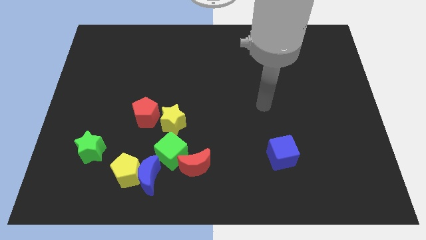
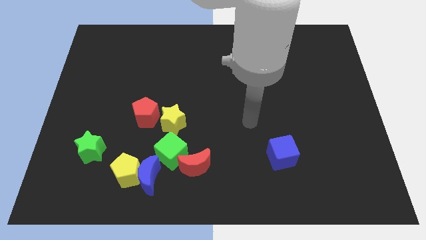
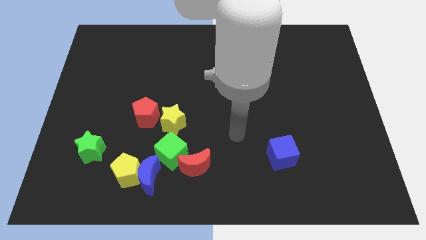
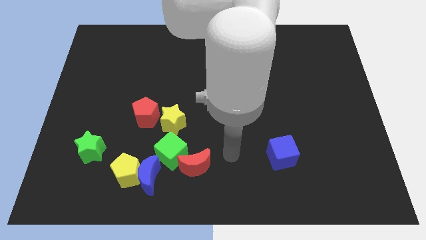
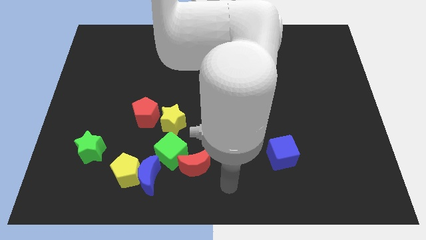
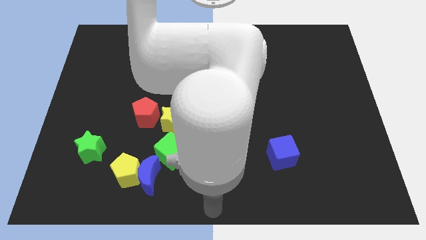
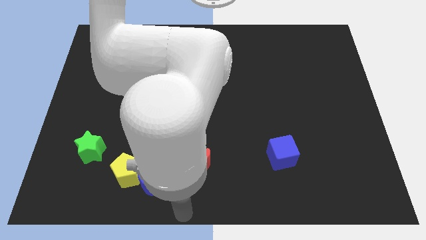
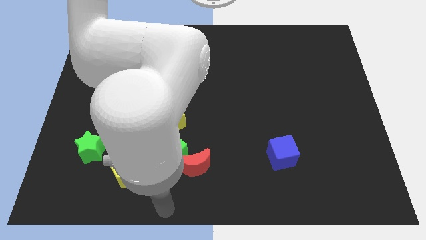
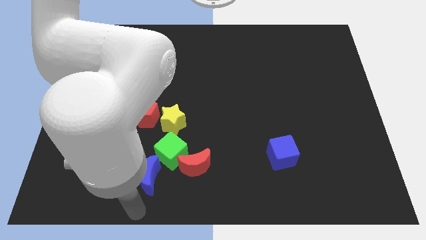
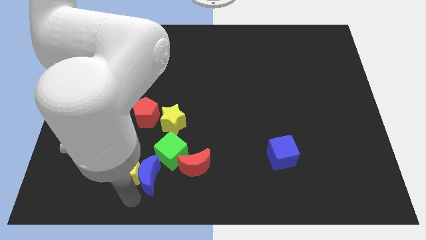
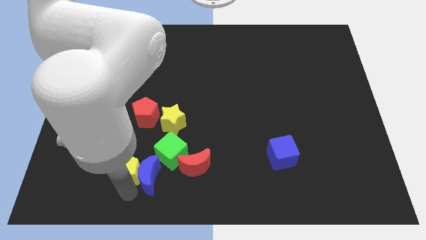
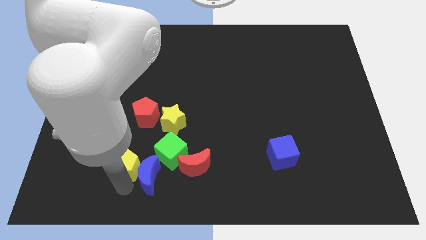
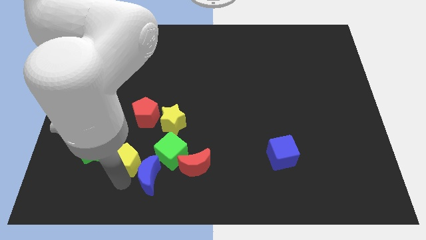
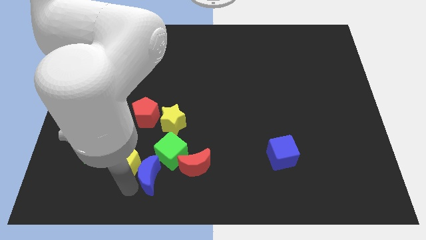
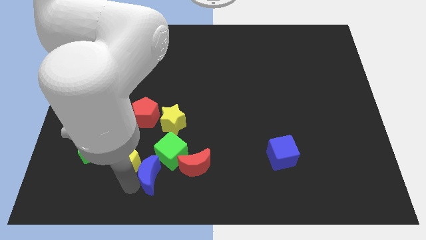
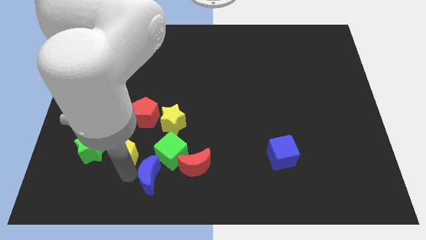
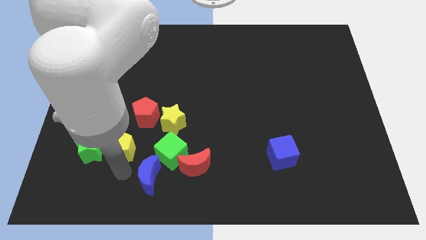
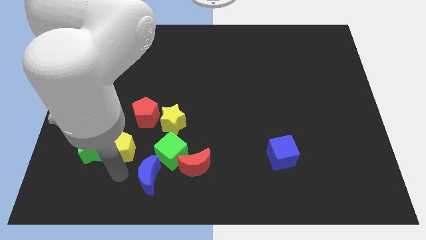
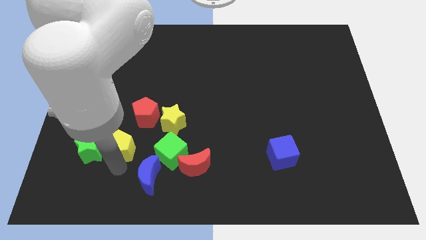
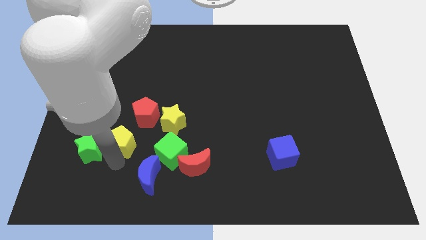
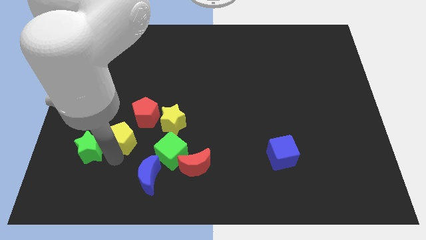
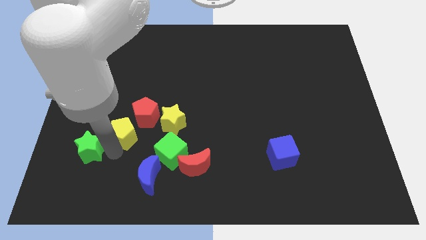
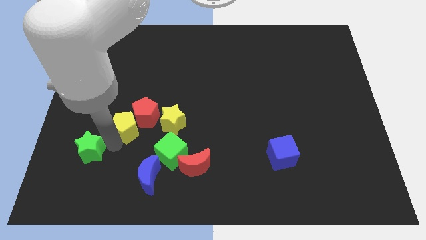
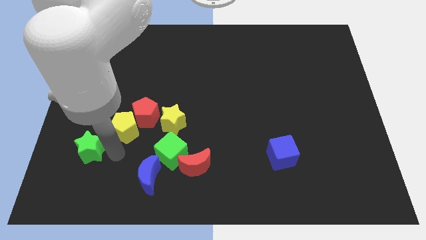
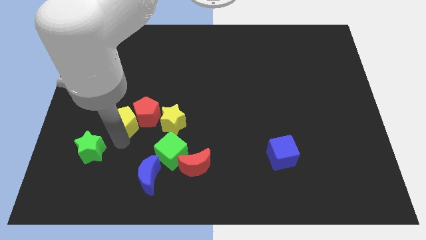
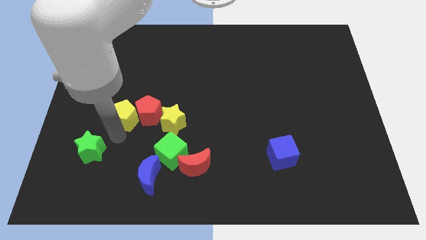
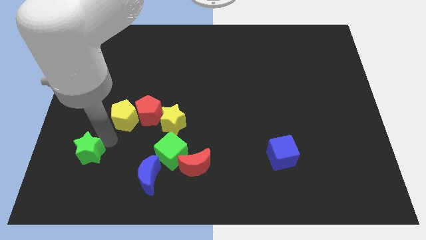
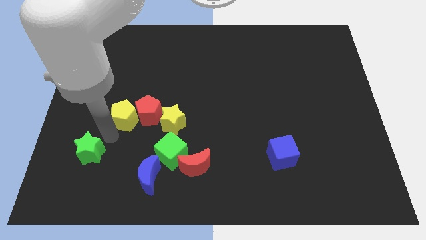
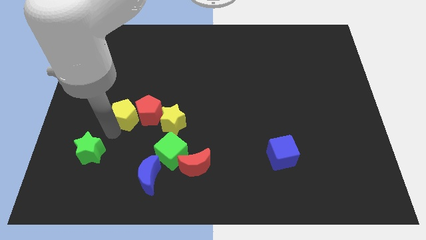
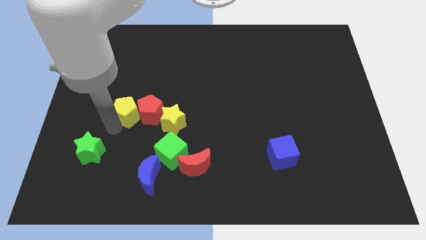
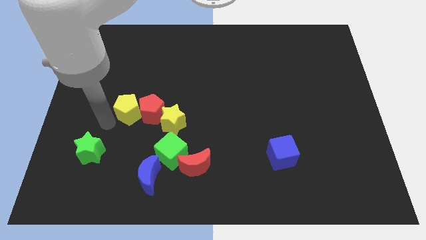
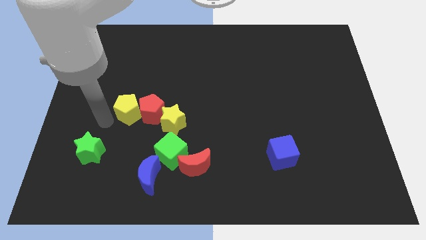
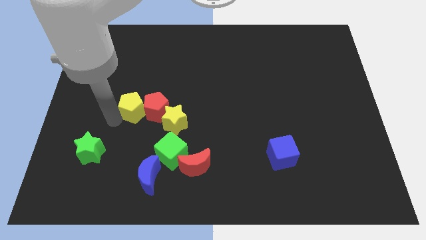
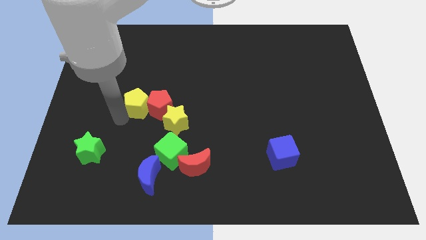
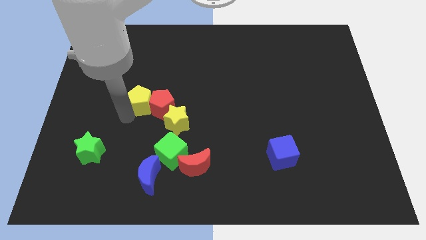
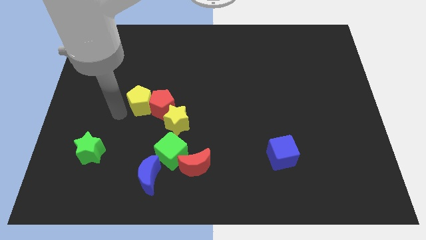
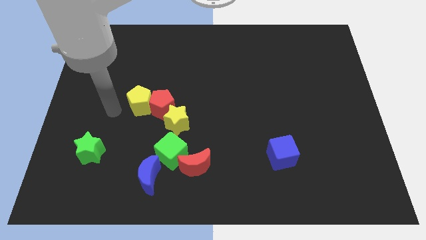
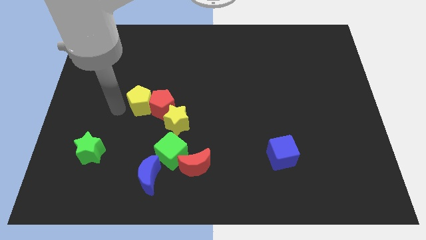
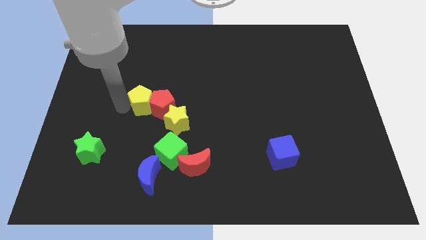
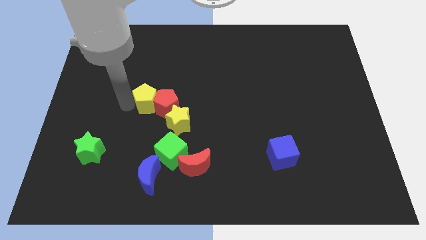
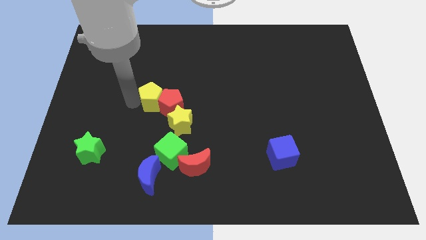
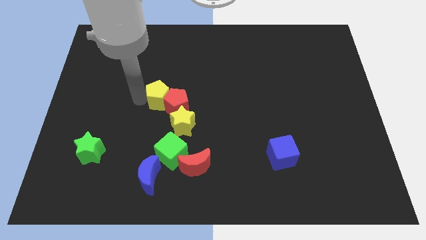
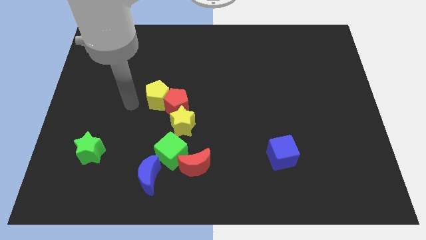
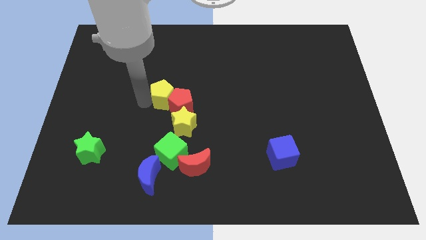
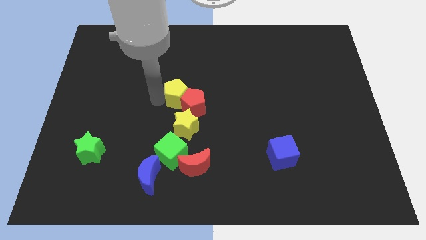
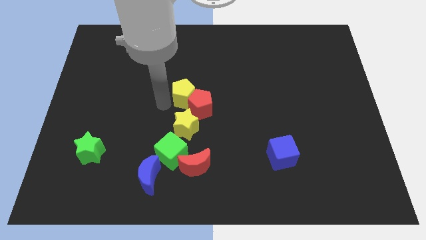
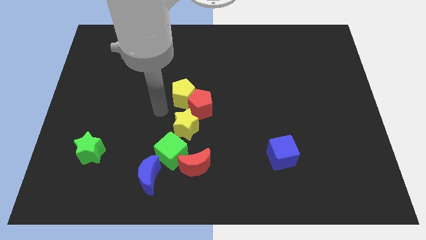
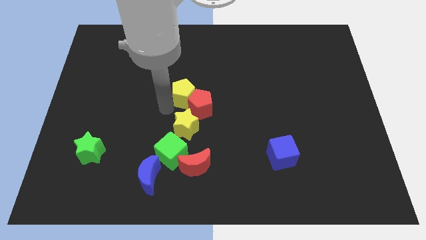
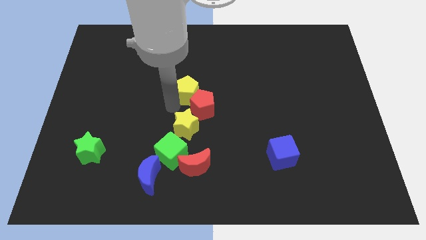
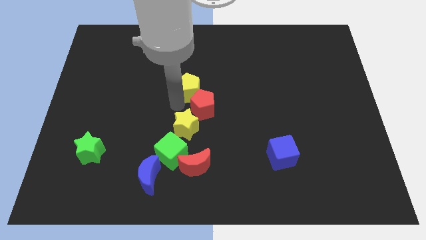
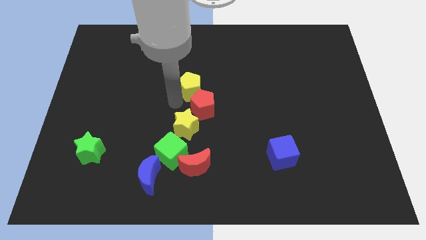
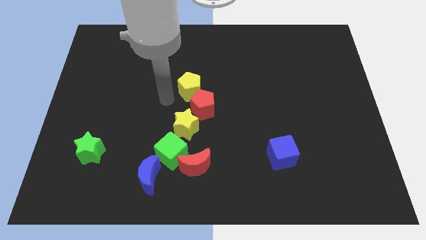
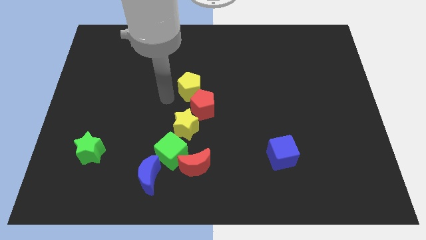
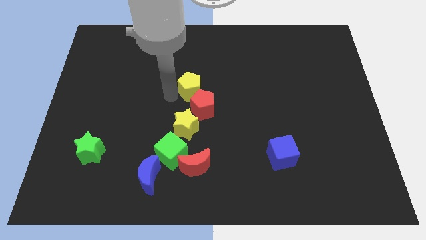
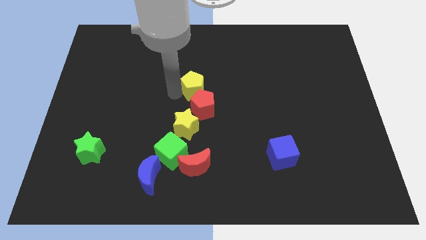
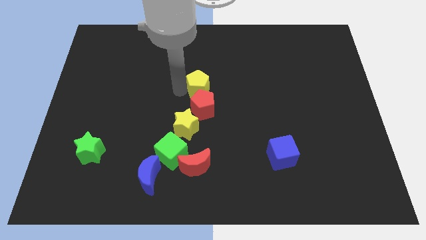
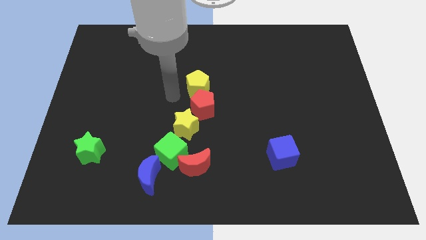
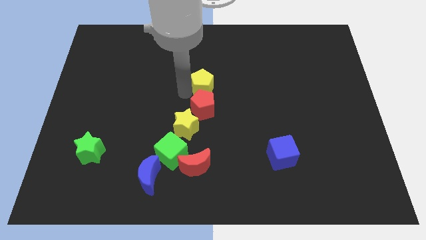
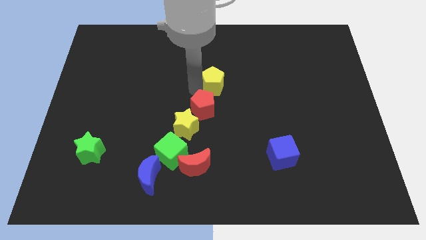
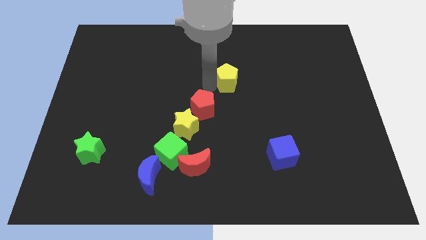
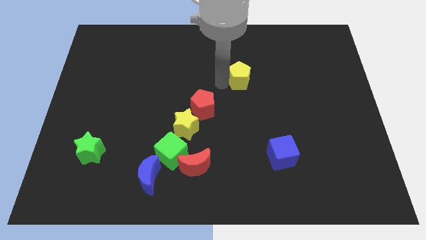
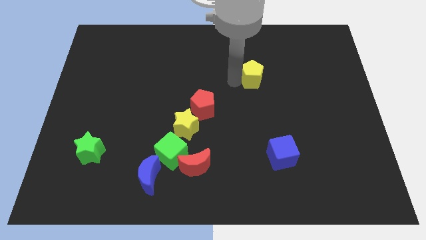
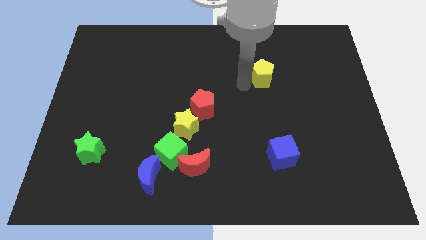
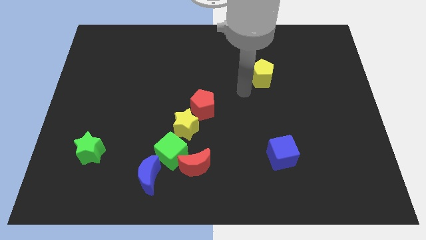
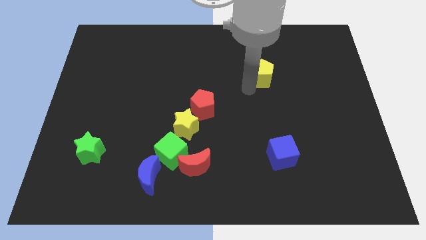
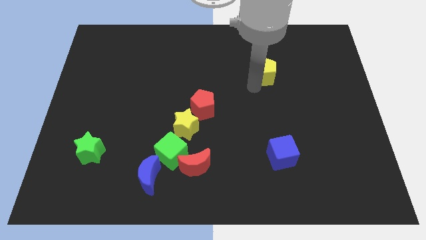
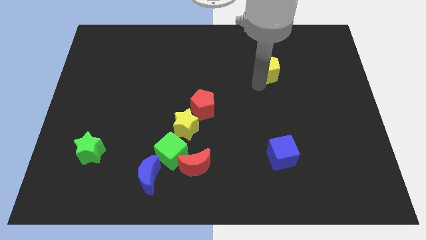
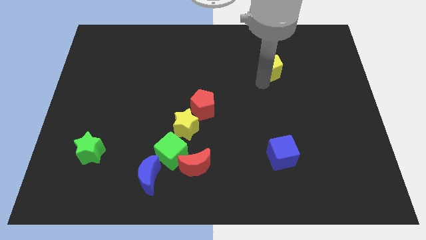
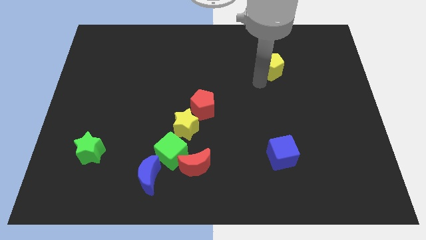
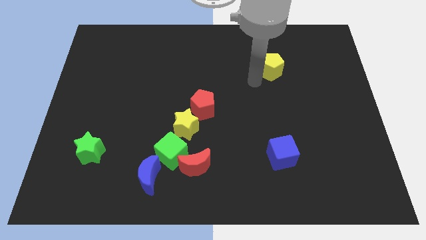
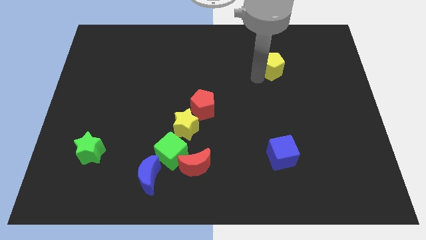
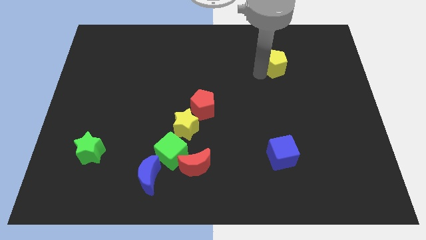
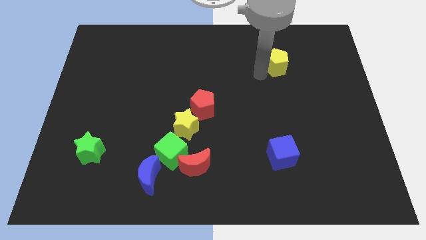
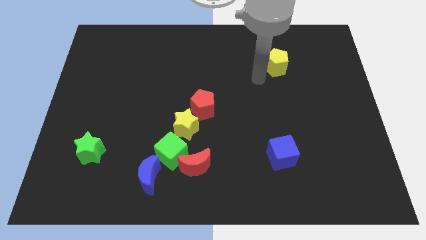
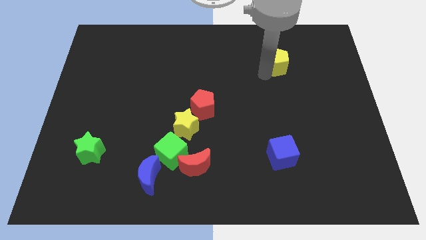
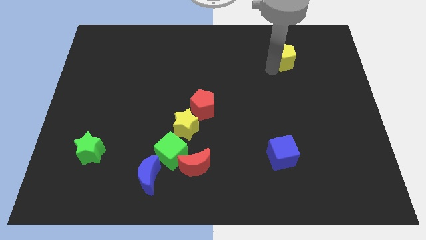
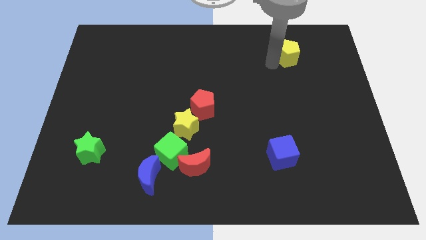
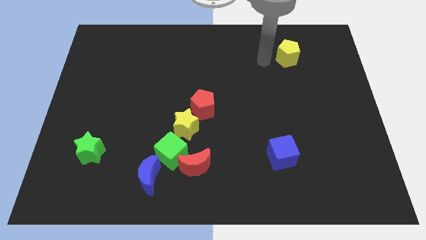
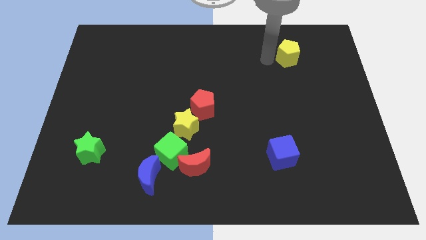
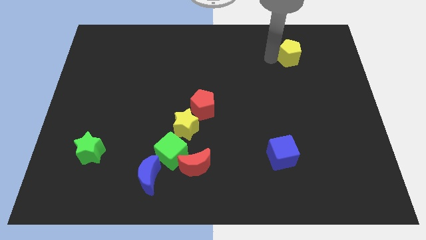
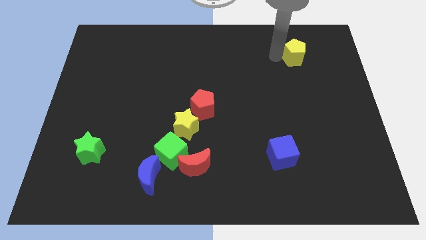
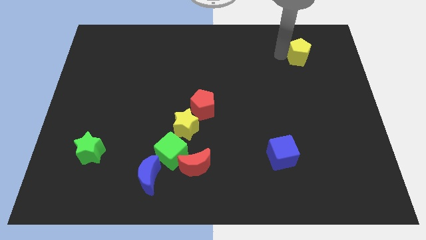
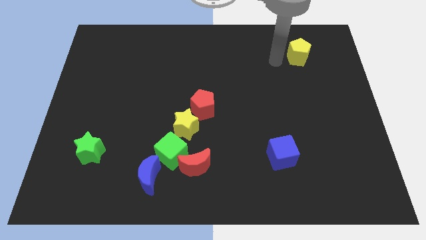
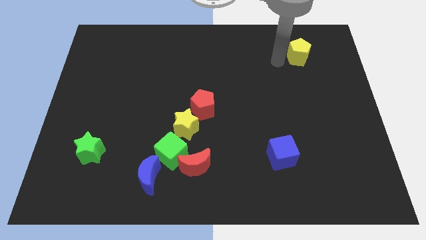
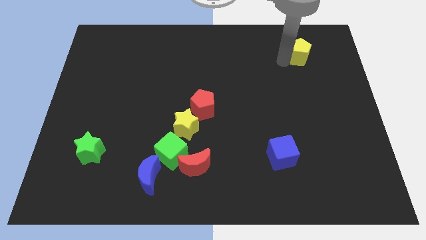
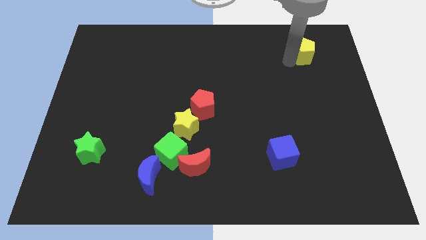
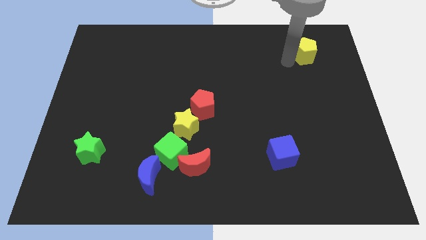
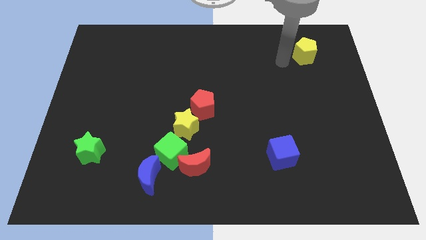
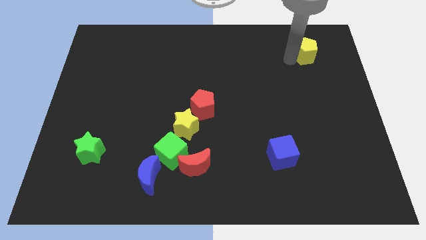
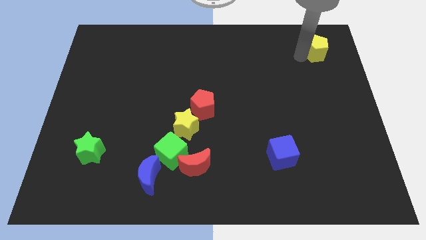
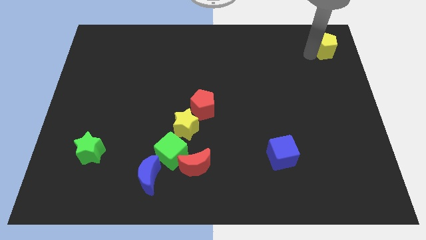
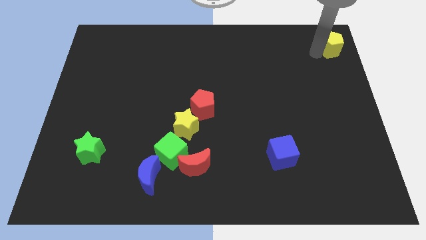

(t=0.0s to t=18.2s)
slide the yellow pentagon to the top right of the board
